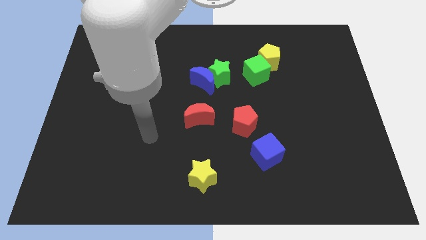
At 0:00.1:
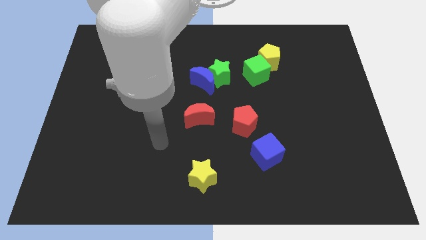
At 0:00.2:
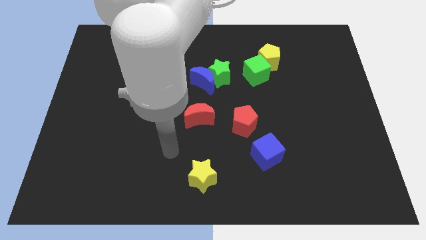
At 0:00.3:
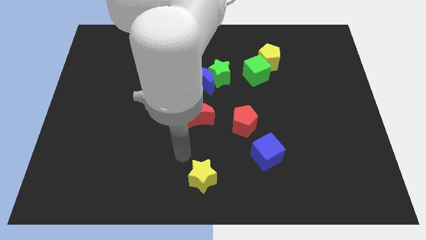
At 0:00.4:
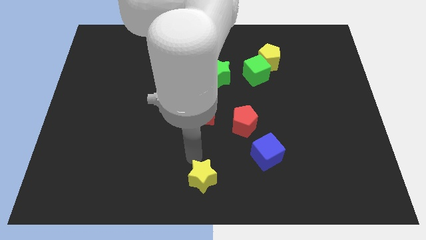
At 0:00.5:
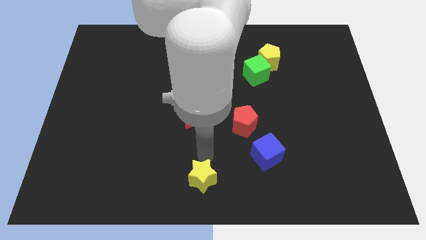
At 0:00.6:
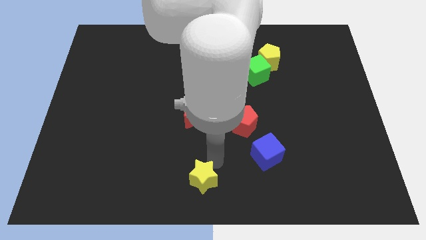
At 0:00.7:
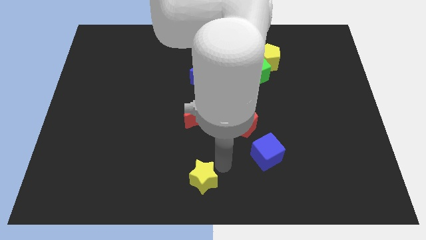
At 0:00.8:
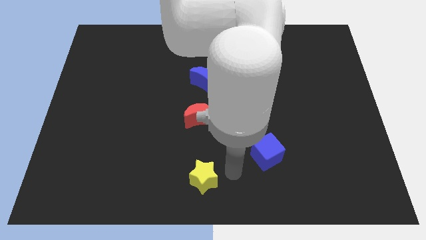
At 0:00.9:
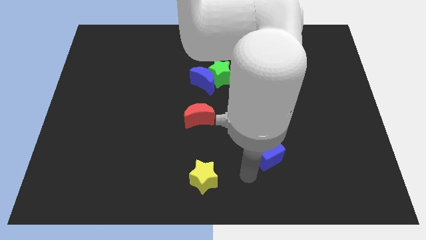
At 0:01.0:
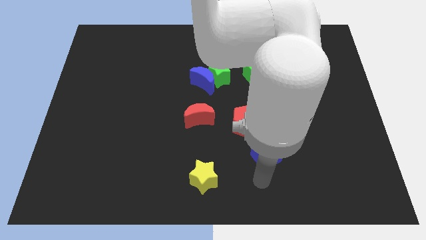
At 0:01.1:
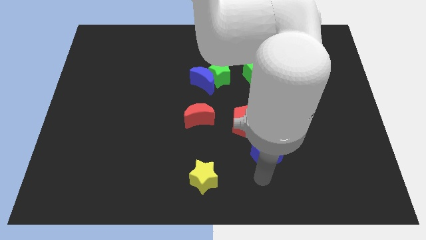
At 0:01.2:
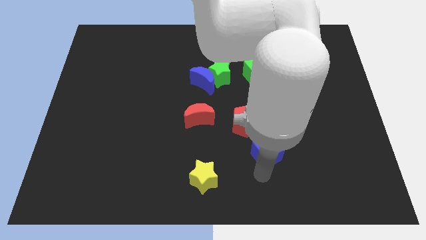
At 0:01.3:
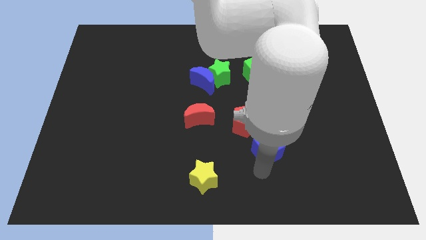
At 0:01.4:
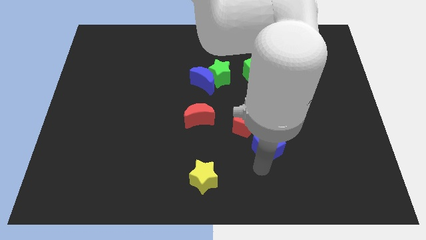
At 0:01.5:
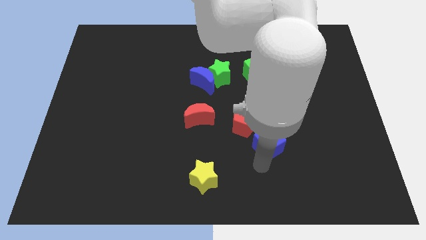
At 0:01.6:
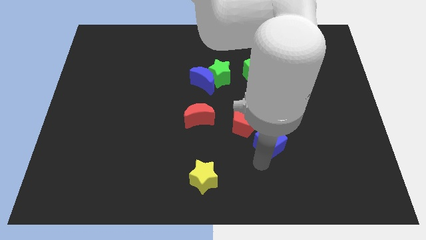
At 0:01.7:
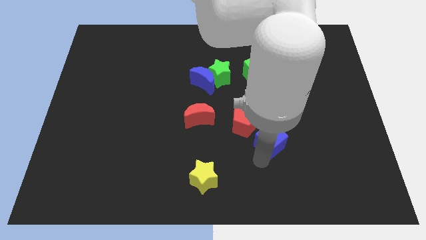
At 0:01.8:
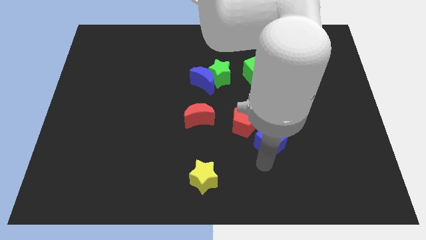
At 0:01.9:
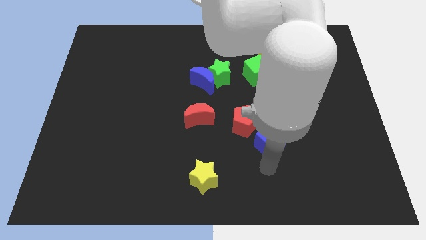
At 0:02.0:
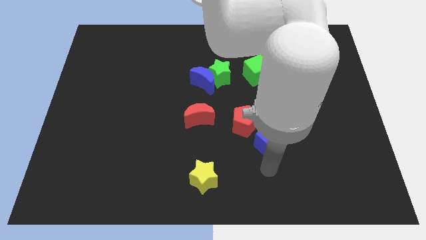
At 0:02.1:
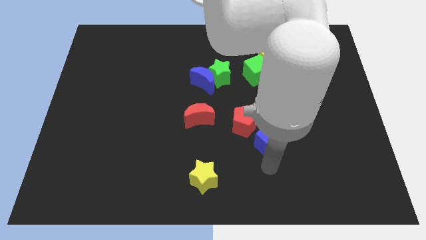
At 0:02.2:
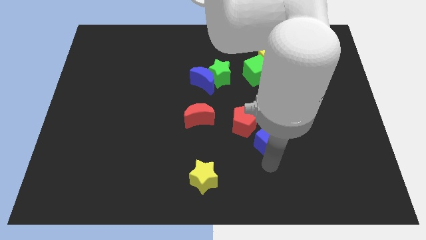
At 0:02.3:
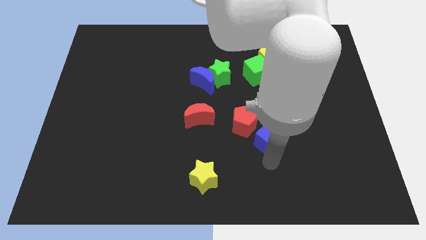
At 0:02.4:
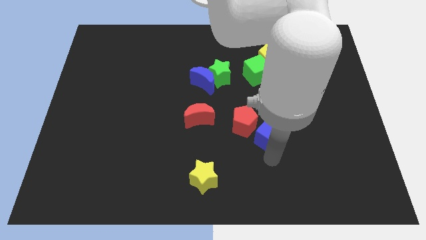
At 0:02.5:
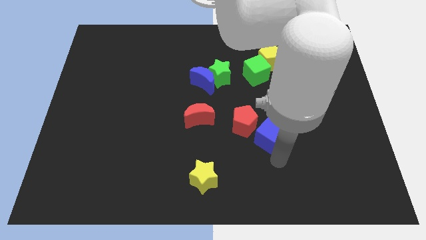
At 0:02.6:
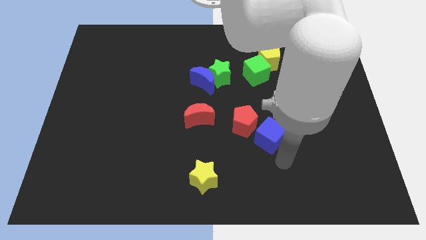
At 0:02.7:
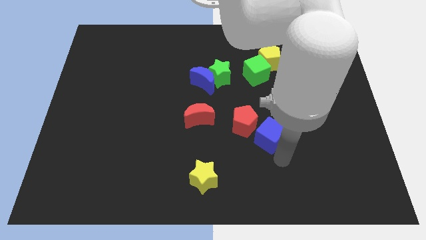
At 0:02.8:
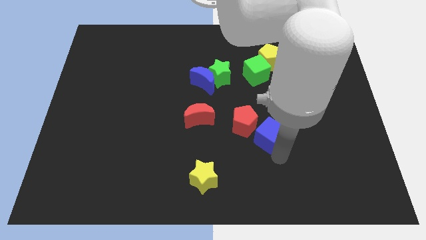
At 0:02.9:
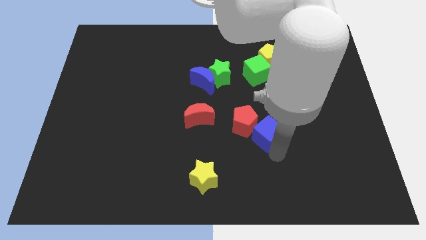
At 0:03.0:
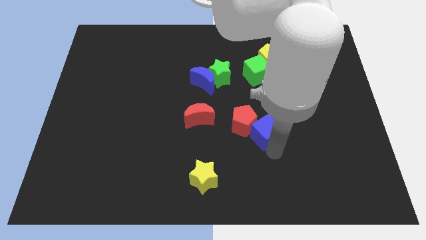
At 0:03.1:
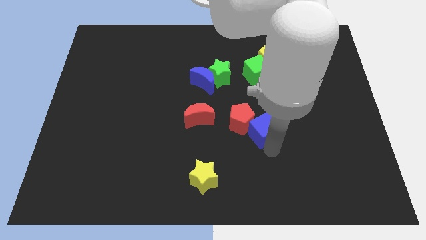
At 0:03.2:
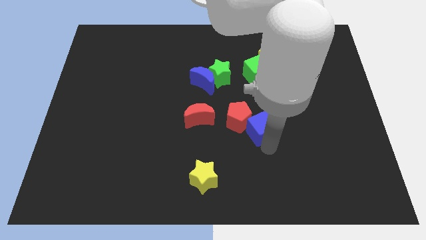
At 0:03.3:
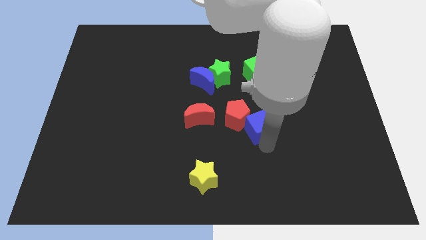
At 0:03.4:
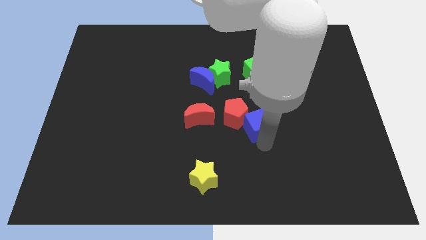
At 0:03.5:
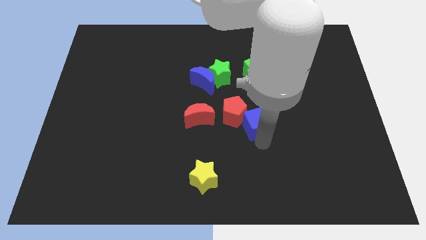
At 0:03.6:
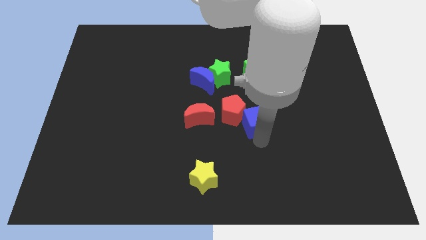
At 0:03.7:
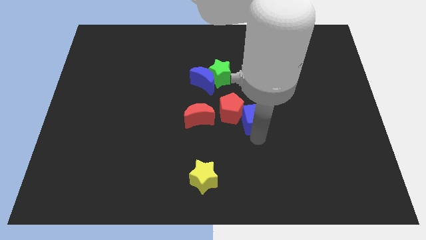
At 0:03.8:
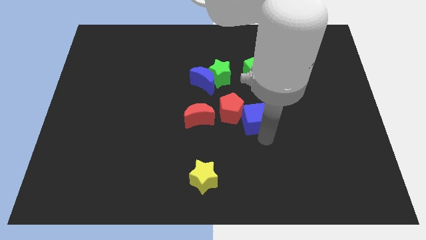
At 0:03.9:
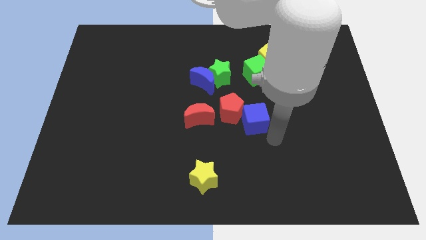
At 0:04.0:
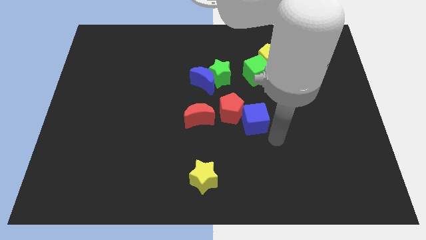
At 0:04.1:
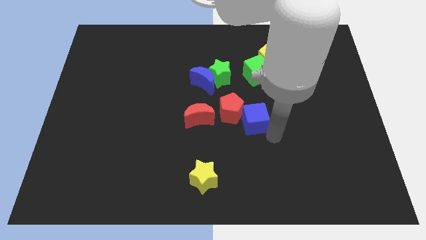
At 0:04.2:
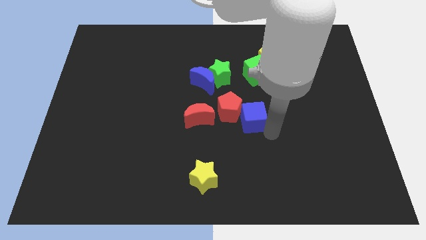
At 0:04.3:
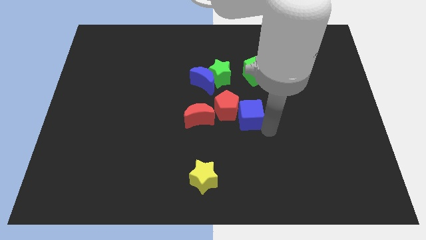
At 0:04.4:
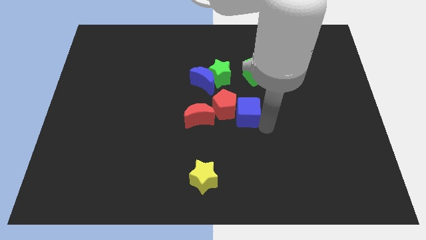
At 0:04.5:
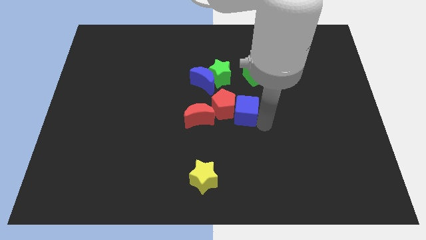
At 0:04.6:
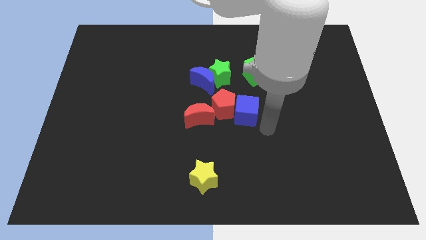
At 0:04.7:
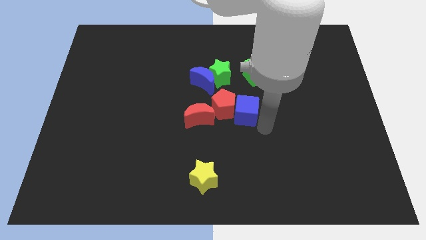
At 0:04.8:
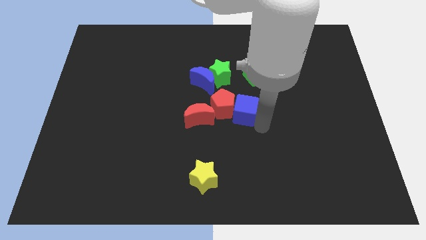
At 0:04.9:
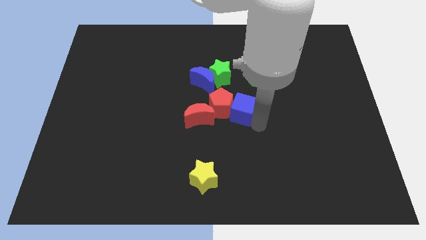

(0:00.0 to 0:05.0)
slide the blue cube to the bottom right side of the blue moon

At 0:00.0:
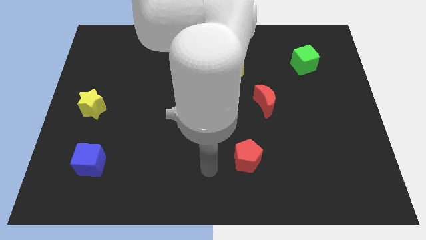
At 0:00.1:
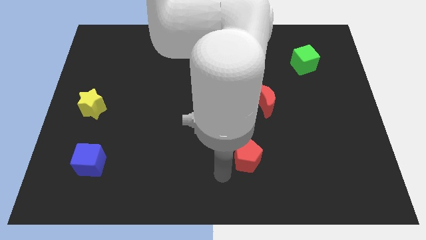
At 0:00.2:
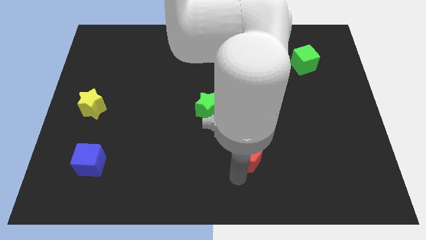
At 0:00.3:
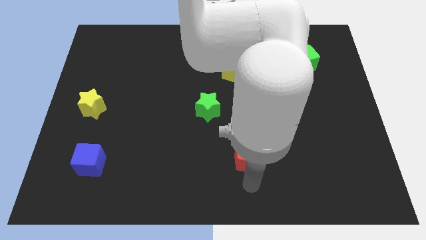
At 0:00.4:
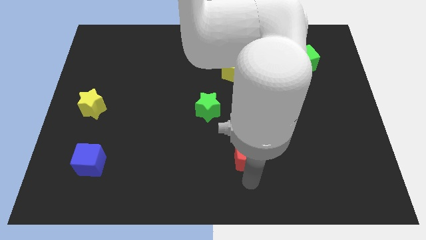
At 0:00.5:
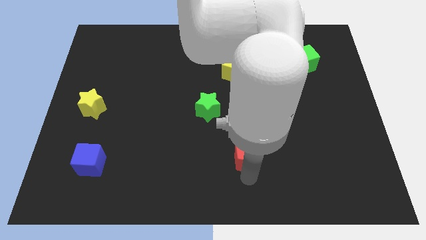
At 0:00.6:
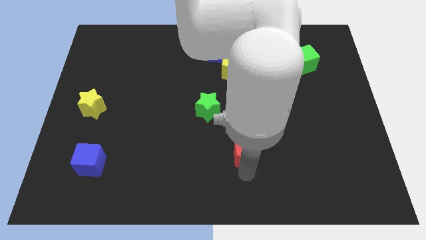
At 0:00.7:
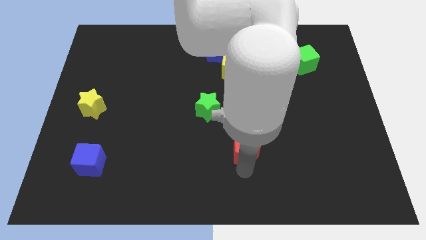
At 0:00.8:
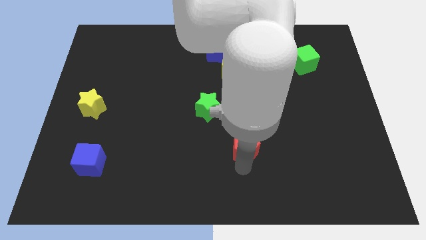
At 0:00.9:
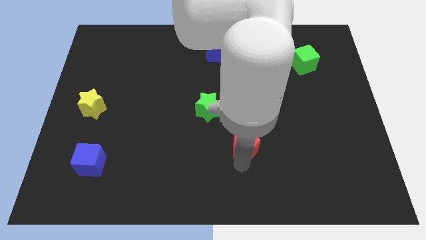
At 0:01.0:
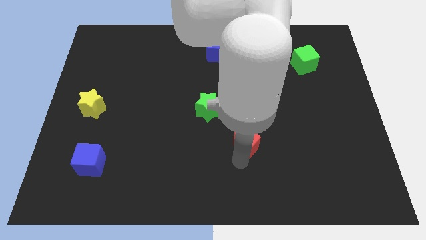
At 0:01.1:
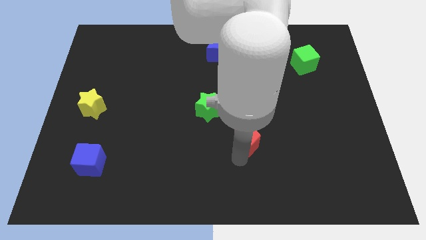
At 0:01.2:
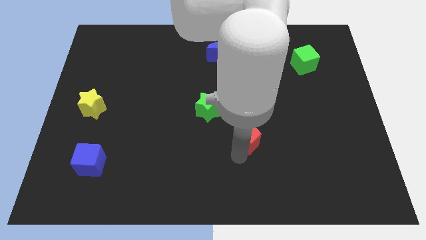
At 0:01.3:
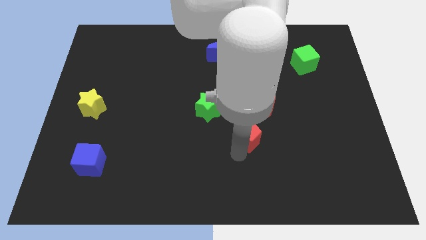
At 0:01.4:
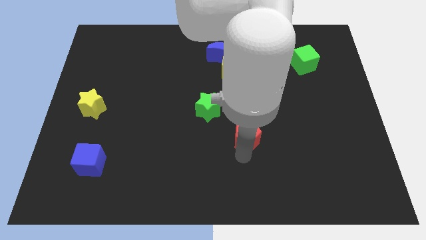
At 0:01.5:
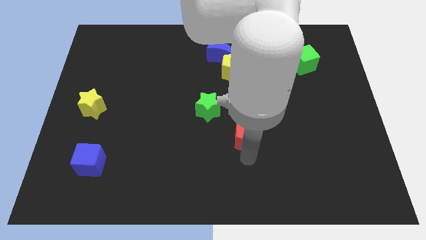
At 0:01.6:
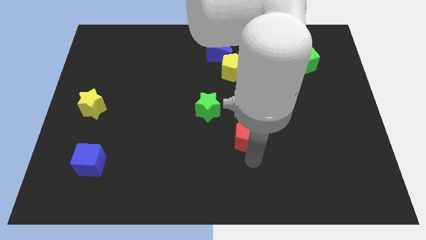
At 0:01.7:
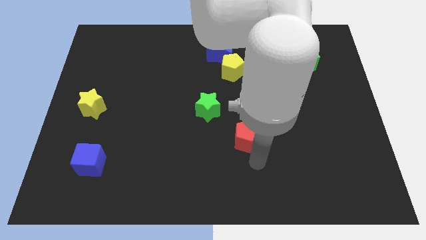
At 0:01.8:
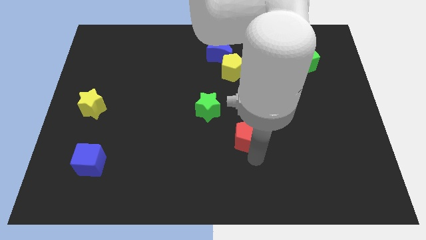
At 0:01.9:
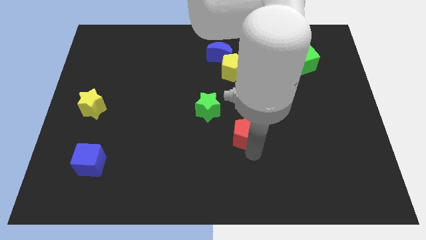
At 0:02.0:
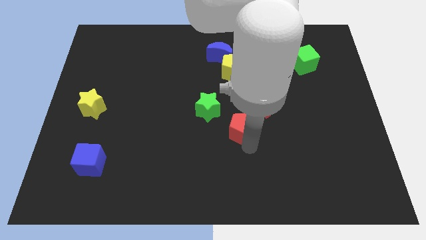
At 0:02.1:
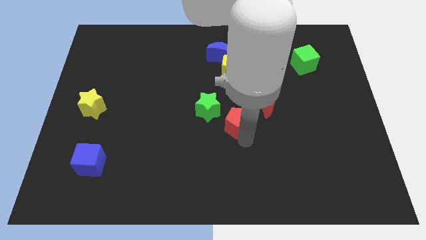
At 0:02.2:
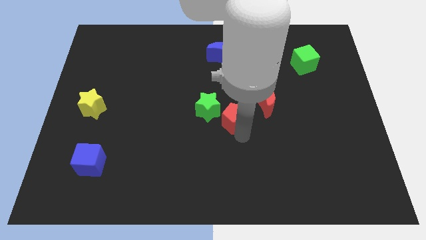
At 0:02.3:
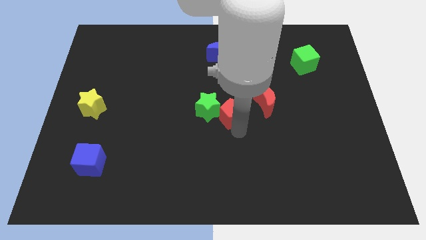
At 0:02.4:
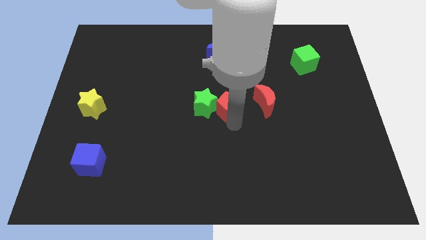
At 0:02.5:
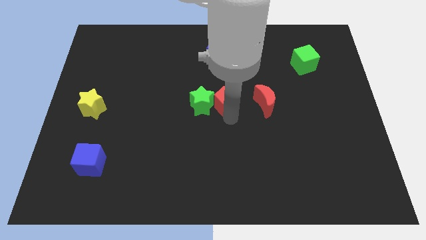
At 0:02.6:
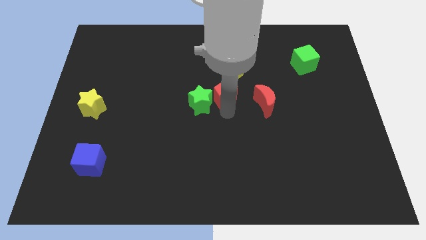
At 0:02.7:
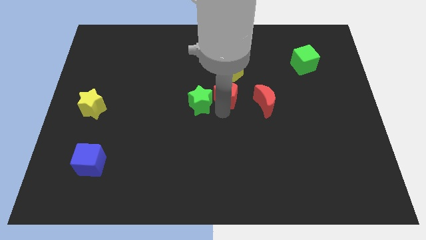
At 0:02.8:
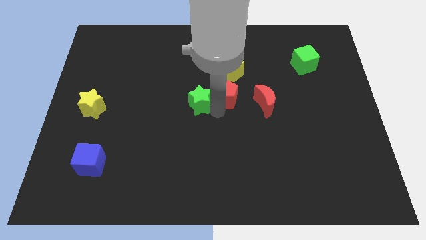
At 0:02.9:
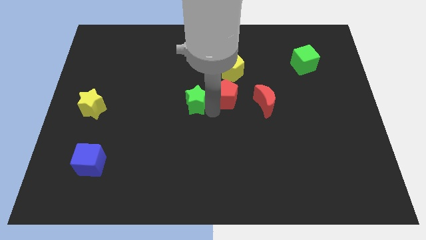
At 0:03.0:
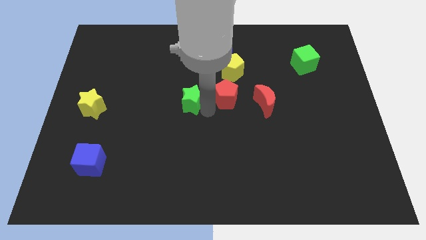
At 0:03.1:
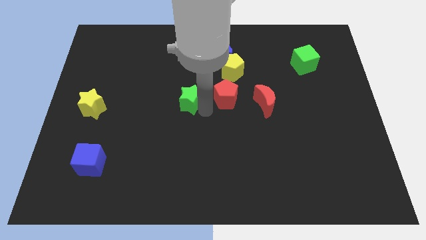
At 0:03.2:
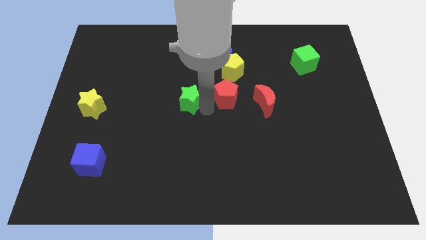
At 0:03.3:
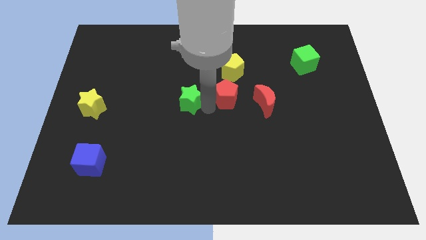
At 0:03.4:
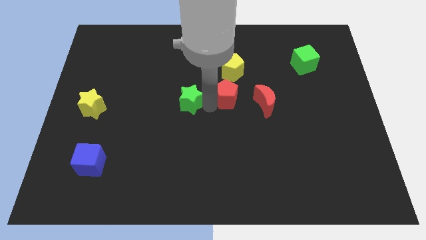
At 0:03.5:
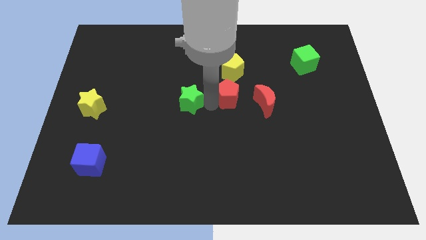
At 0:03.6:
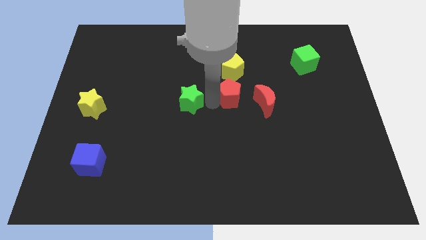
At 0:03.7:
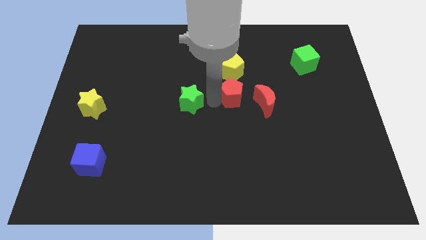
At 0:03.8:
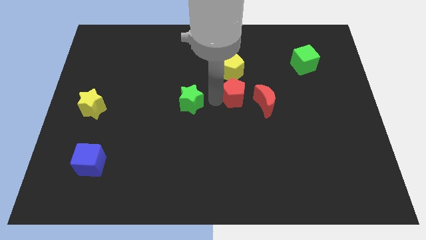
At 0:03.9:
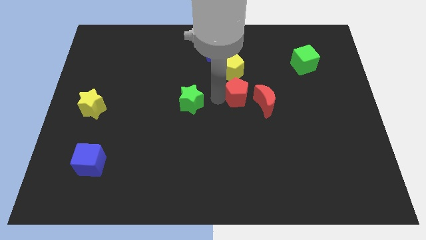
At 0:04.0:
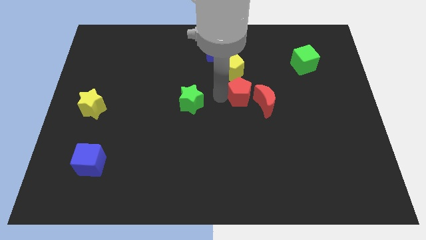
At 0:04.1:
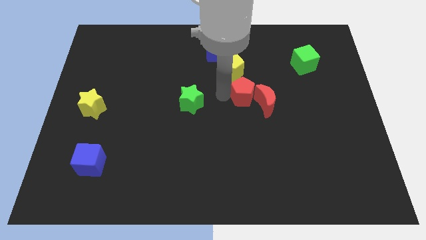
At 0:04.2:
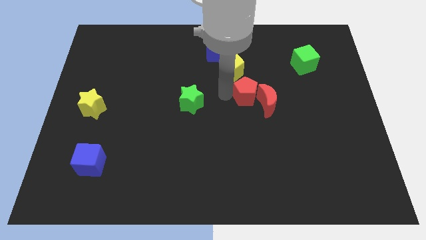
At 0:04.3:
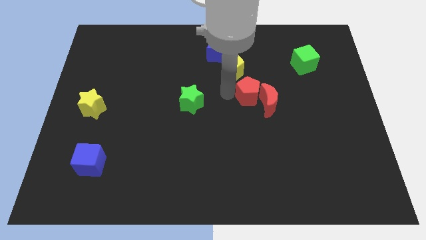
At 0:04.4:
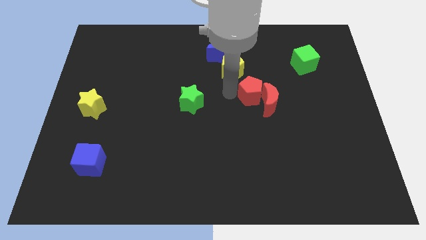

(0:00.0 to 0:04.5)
push the red pentagon to the top of the red moon
